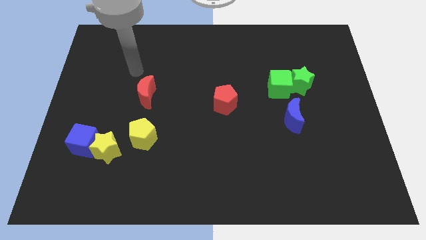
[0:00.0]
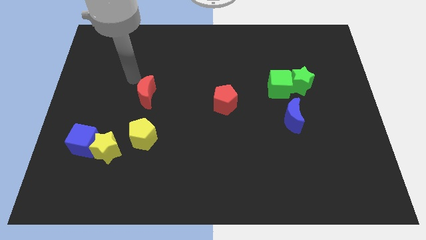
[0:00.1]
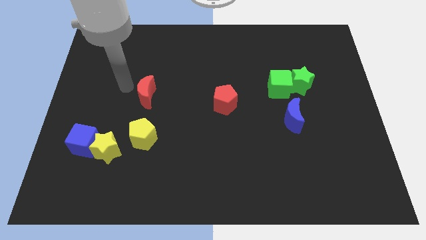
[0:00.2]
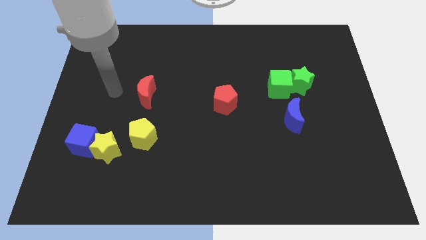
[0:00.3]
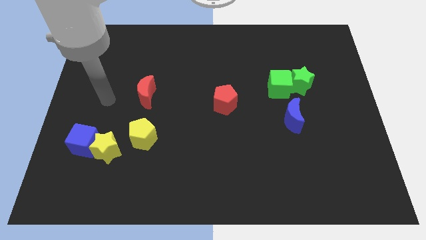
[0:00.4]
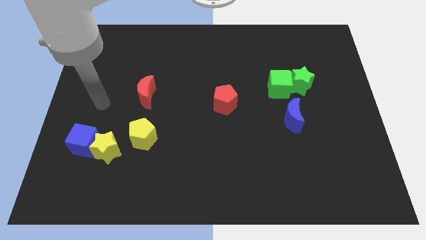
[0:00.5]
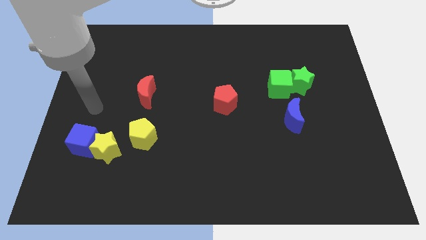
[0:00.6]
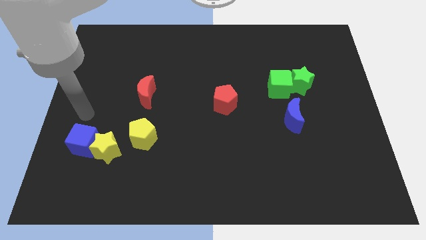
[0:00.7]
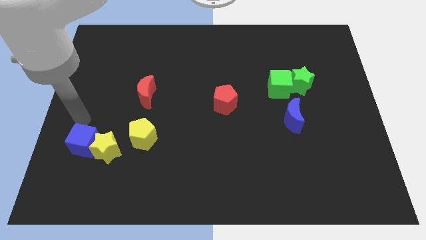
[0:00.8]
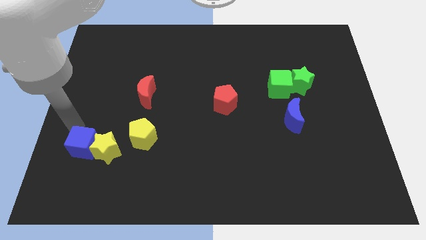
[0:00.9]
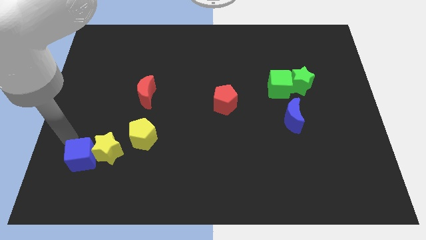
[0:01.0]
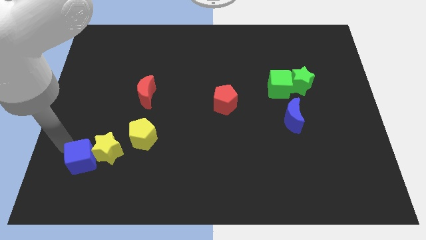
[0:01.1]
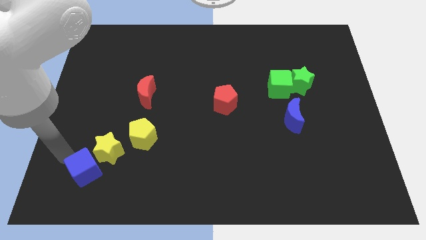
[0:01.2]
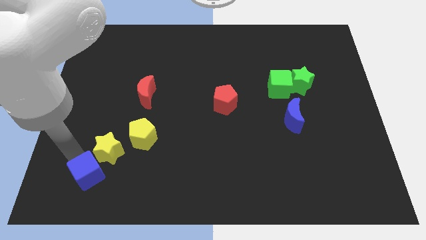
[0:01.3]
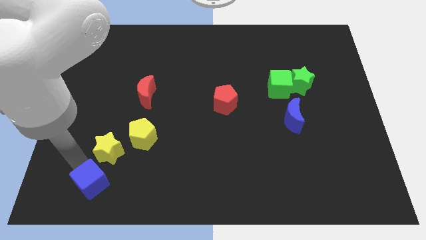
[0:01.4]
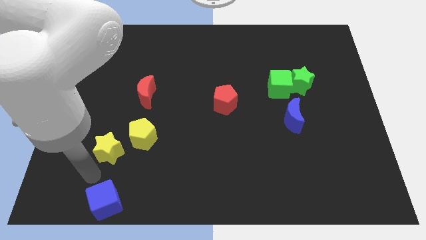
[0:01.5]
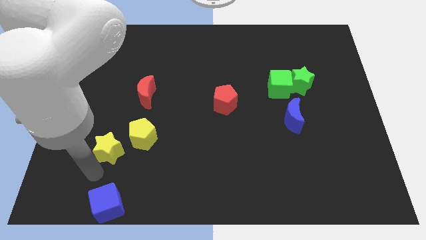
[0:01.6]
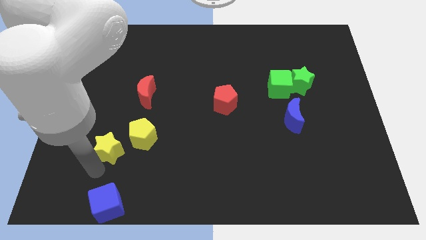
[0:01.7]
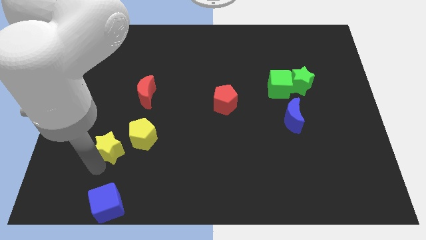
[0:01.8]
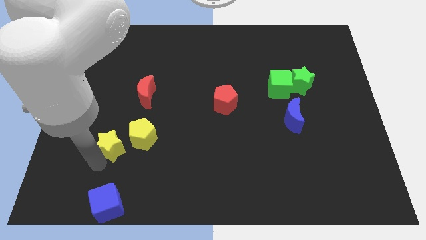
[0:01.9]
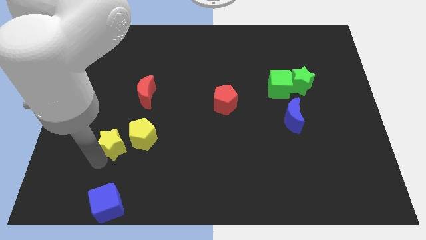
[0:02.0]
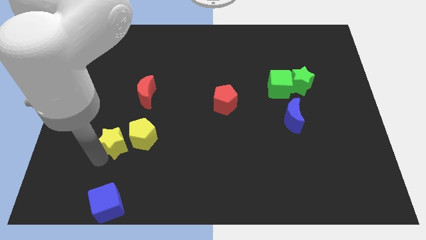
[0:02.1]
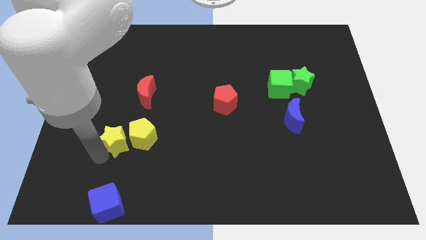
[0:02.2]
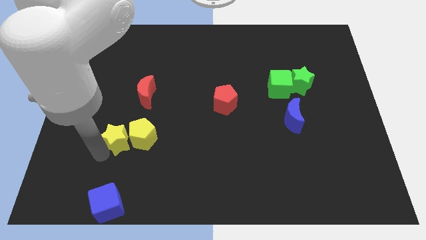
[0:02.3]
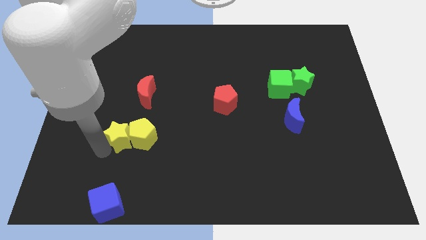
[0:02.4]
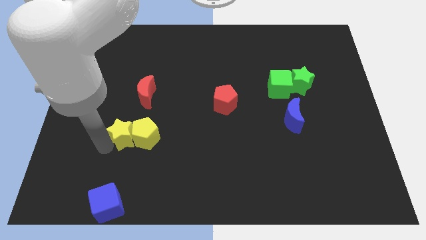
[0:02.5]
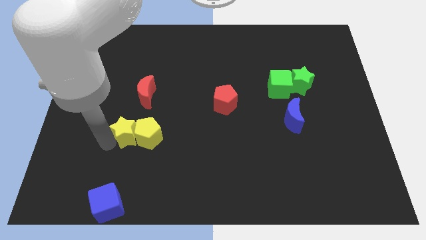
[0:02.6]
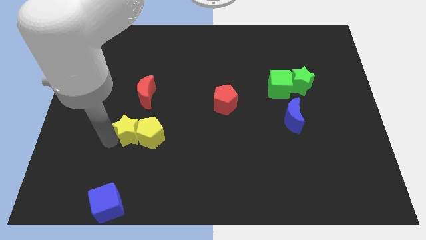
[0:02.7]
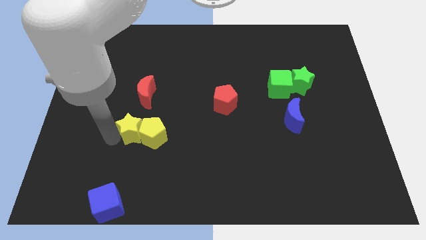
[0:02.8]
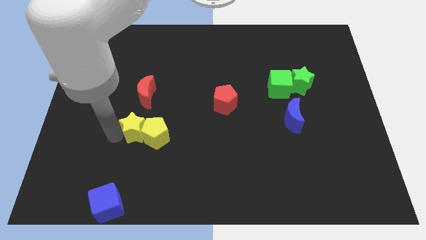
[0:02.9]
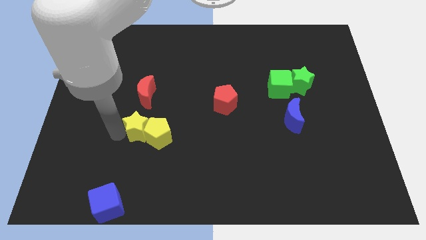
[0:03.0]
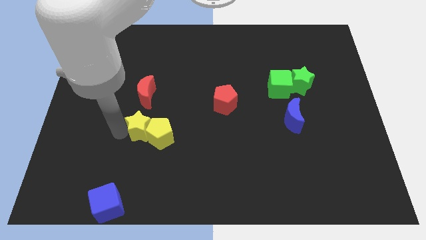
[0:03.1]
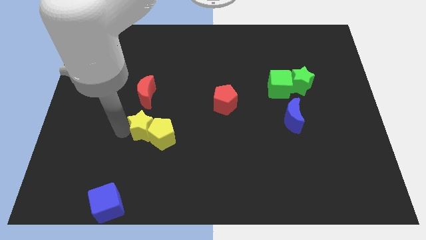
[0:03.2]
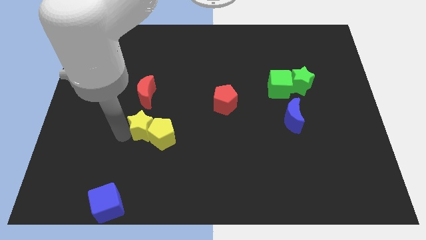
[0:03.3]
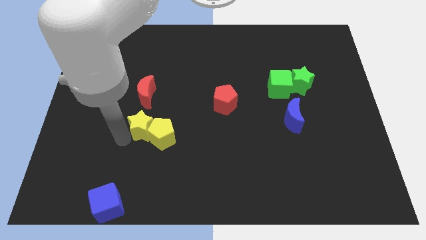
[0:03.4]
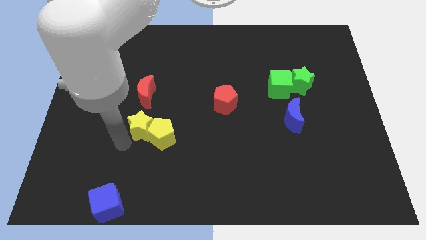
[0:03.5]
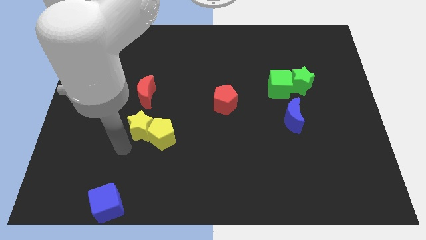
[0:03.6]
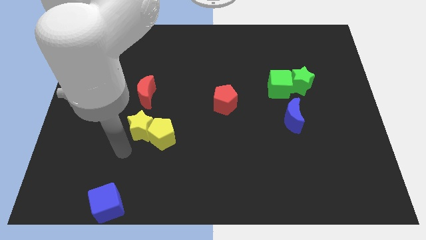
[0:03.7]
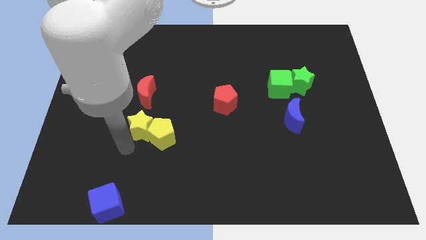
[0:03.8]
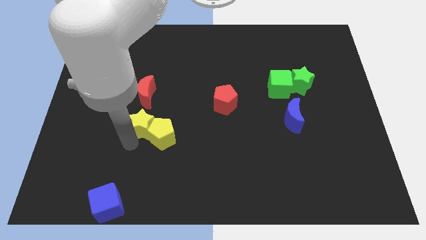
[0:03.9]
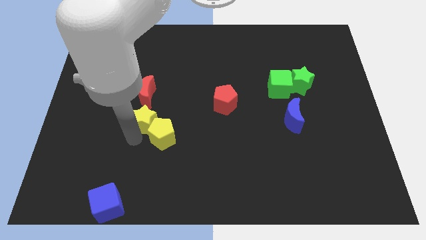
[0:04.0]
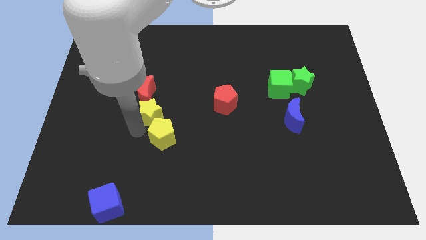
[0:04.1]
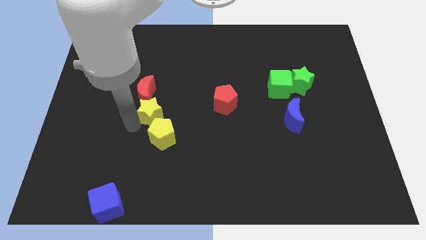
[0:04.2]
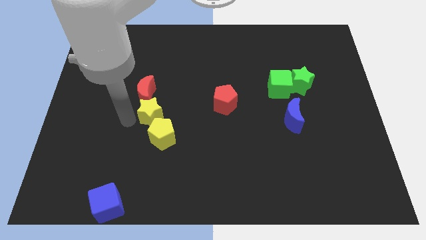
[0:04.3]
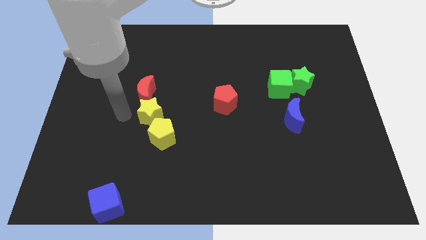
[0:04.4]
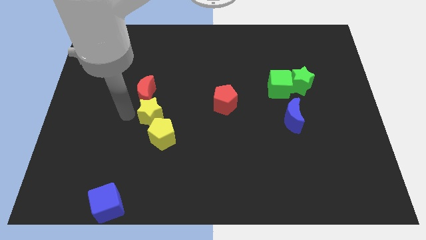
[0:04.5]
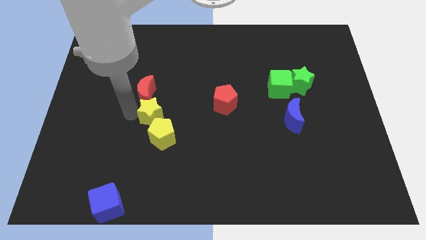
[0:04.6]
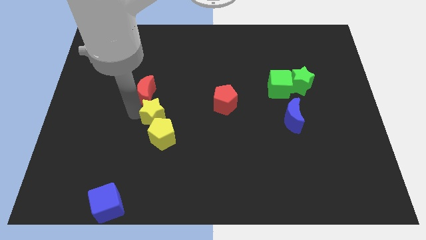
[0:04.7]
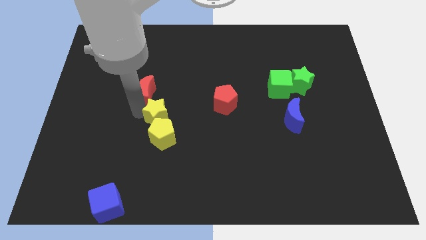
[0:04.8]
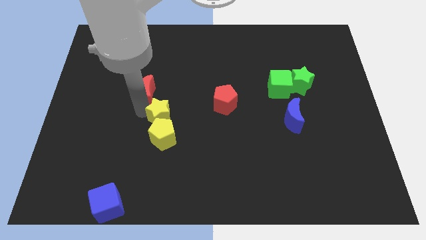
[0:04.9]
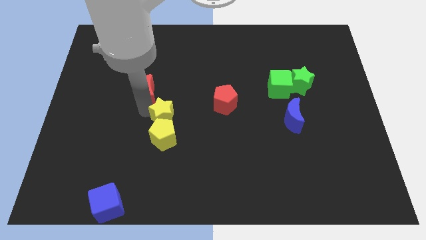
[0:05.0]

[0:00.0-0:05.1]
put the yellow star to the top right side of the yellow pentagon

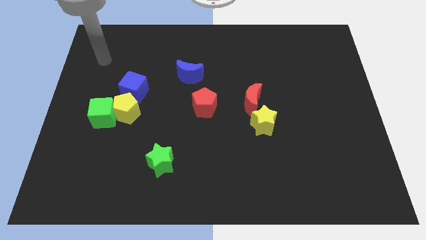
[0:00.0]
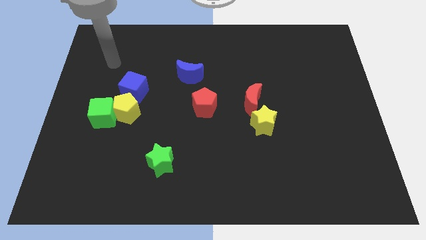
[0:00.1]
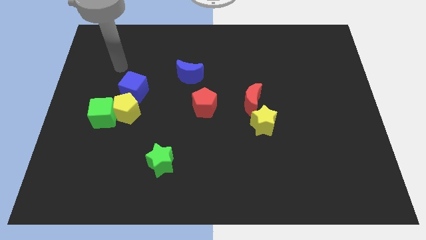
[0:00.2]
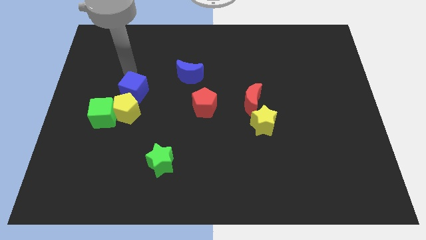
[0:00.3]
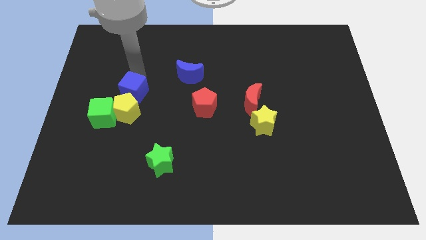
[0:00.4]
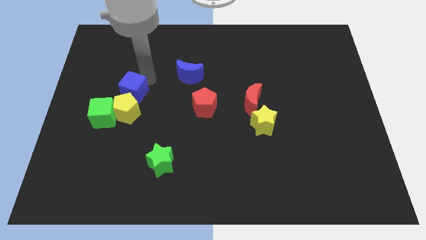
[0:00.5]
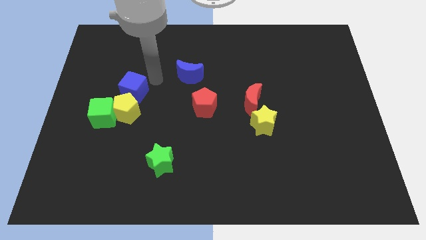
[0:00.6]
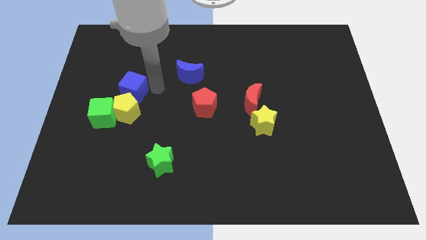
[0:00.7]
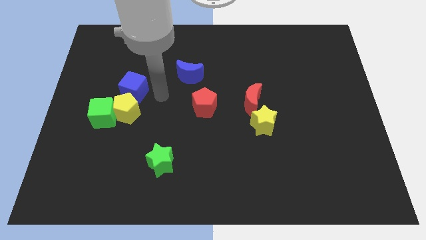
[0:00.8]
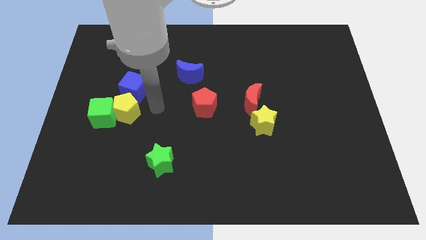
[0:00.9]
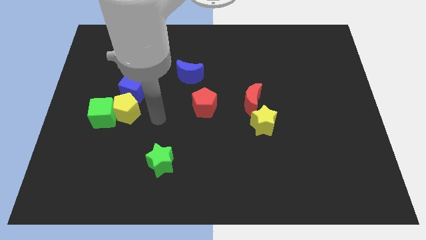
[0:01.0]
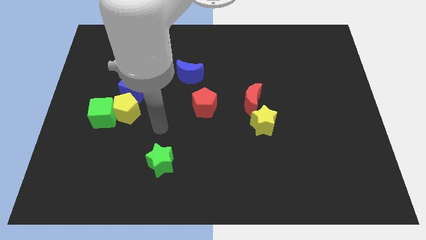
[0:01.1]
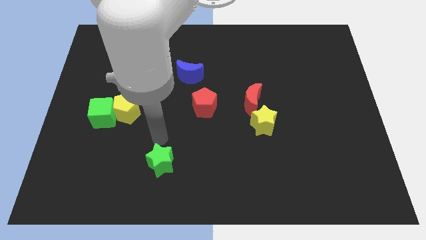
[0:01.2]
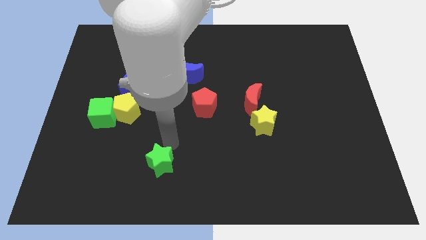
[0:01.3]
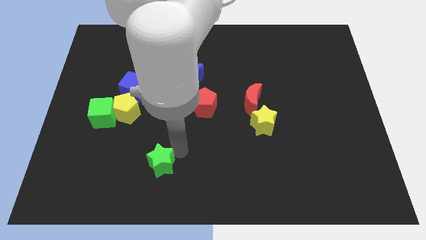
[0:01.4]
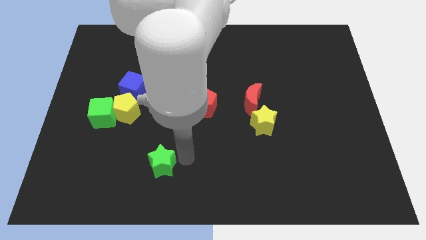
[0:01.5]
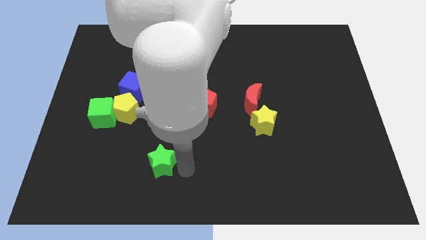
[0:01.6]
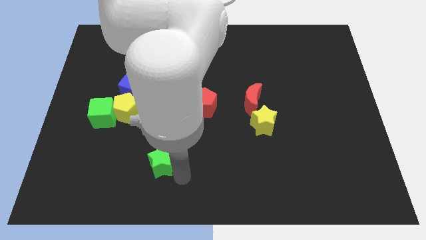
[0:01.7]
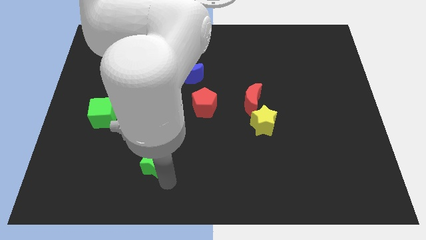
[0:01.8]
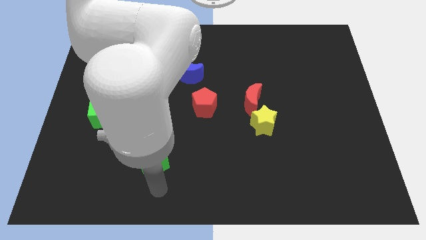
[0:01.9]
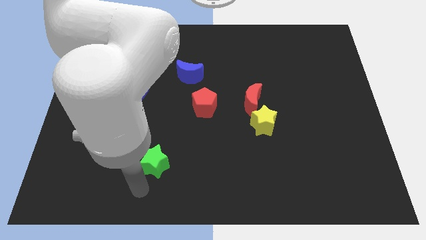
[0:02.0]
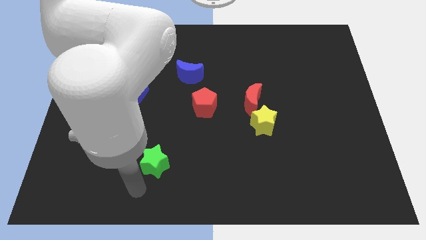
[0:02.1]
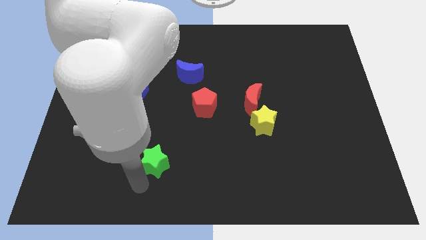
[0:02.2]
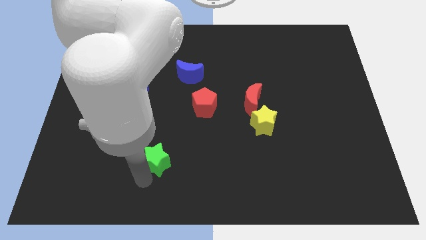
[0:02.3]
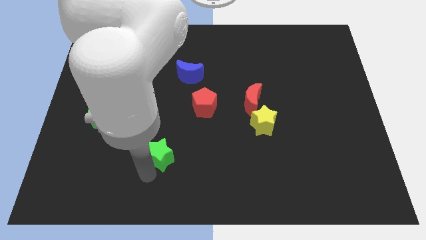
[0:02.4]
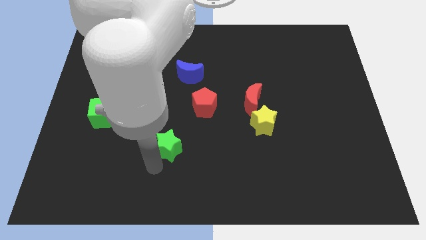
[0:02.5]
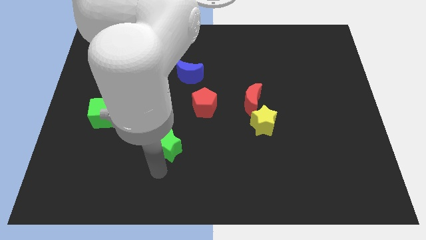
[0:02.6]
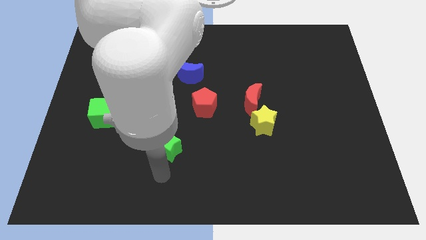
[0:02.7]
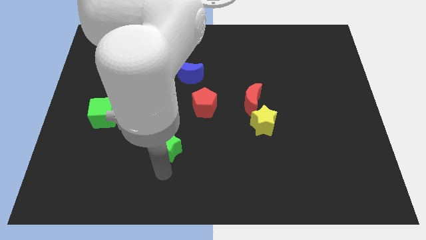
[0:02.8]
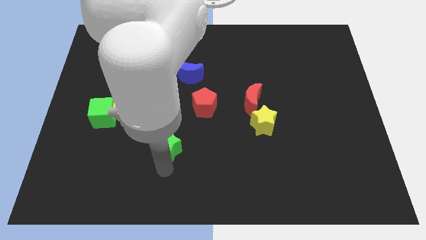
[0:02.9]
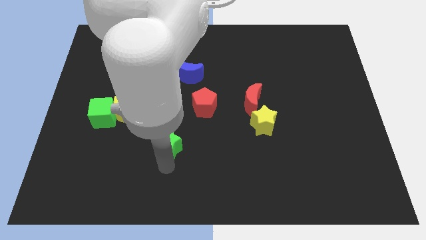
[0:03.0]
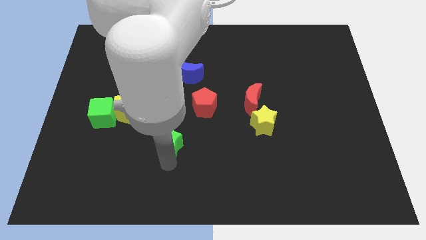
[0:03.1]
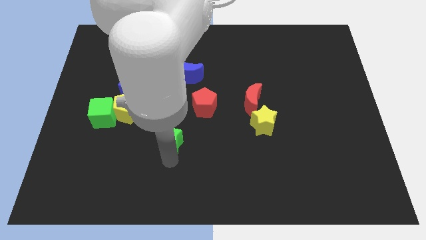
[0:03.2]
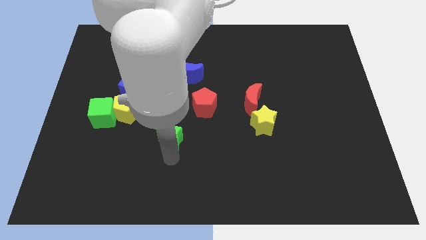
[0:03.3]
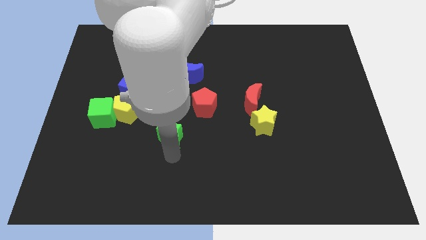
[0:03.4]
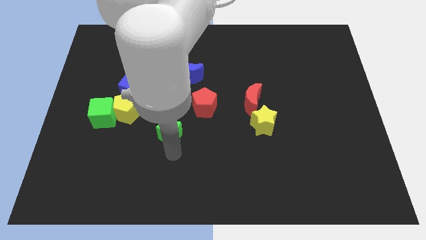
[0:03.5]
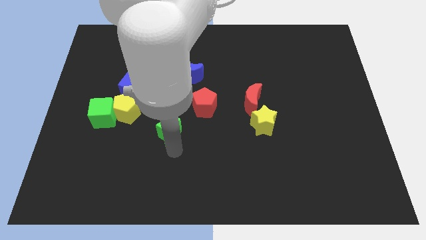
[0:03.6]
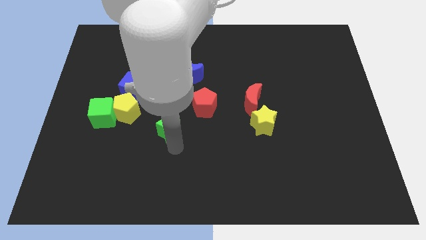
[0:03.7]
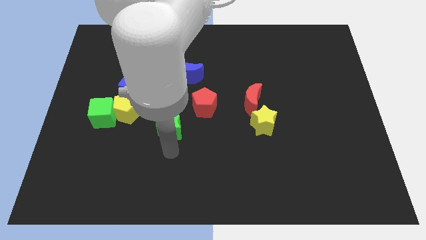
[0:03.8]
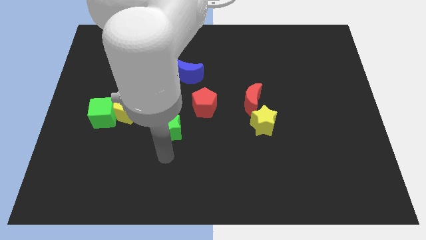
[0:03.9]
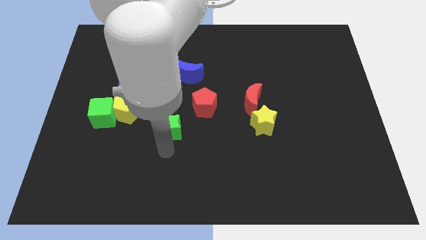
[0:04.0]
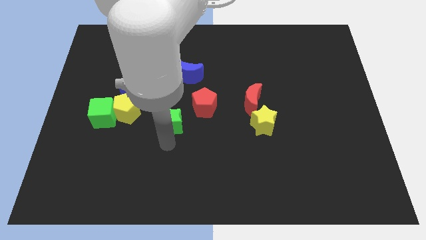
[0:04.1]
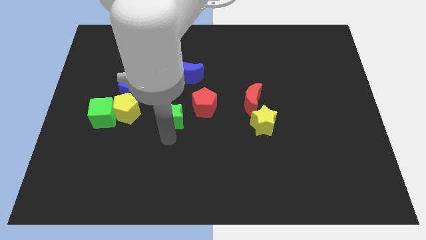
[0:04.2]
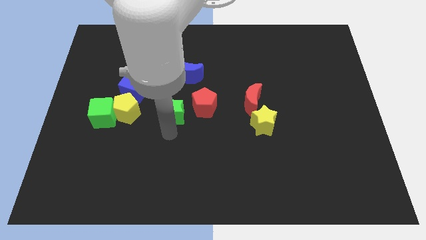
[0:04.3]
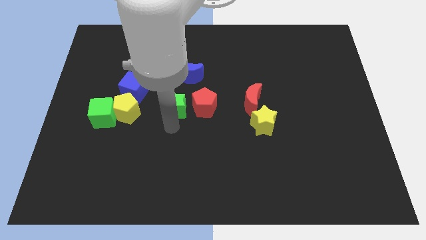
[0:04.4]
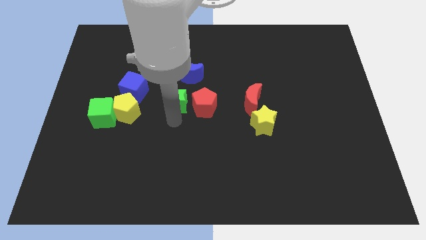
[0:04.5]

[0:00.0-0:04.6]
slide the green star to the bottom left of the blue moon
